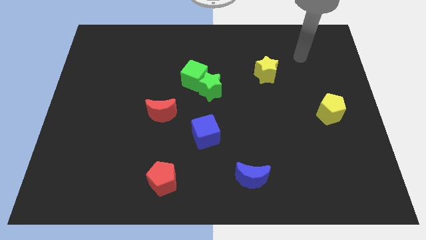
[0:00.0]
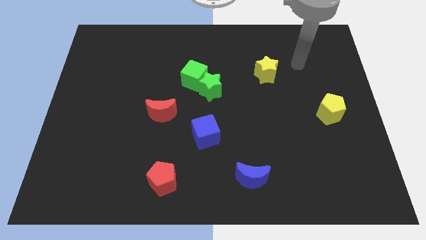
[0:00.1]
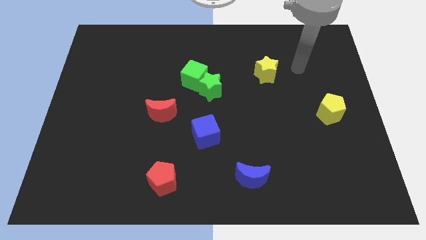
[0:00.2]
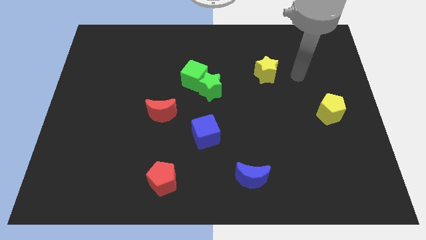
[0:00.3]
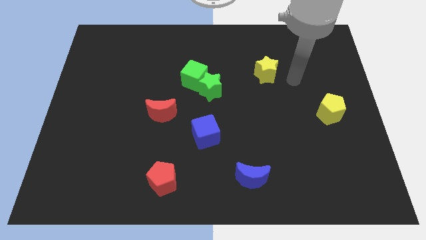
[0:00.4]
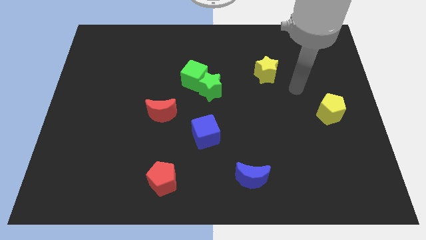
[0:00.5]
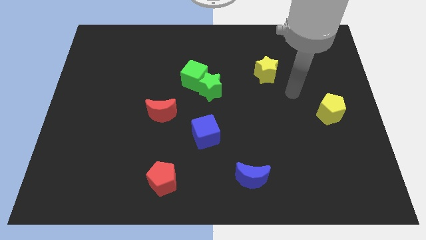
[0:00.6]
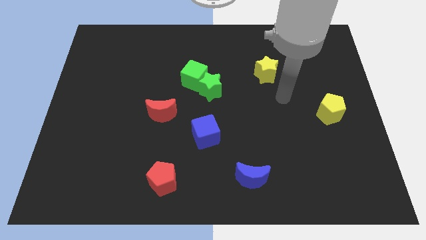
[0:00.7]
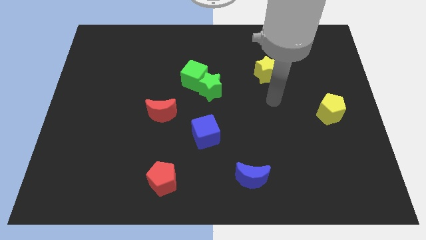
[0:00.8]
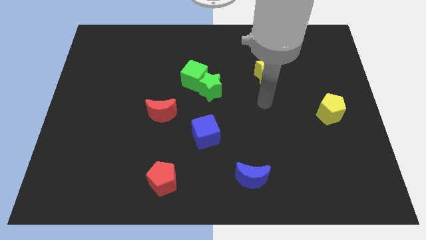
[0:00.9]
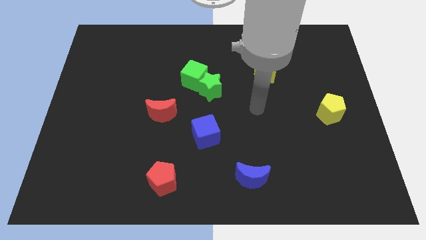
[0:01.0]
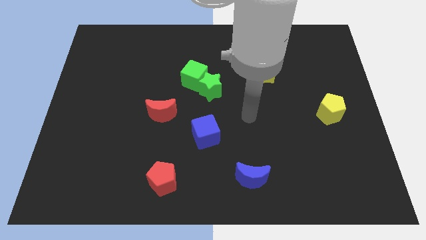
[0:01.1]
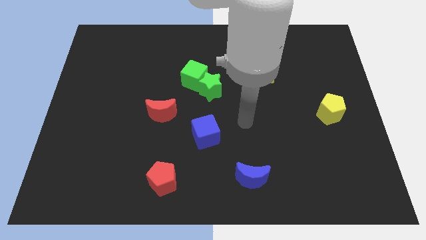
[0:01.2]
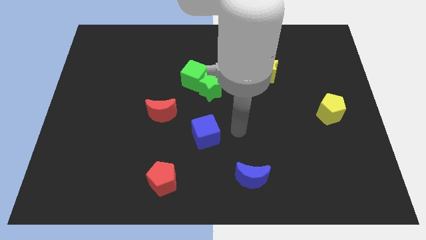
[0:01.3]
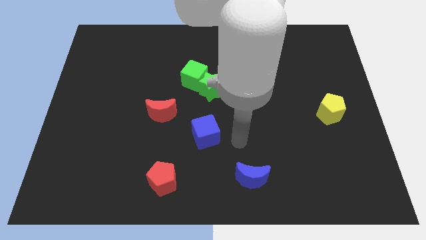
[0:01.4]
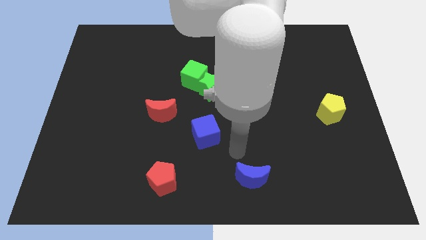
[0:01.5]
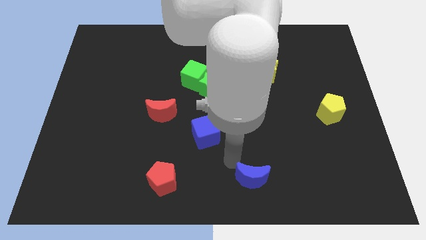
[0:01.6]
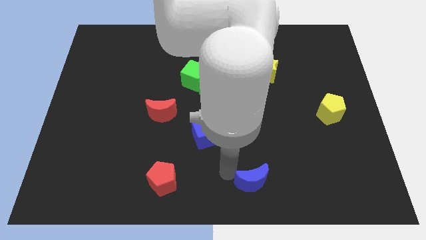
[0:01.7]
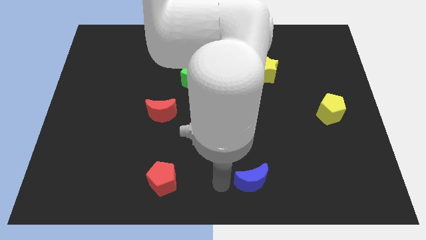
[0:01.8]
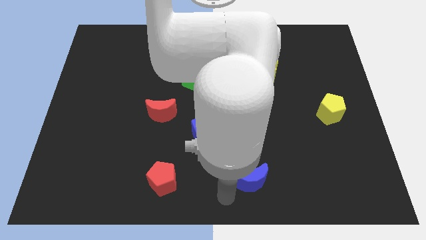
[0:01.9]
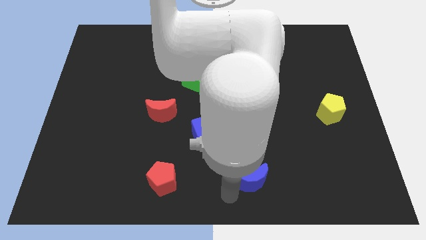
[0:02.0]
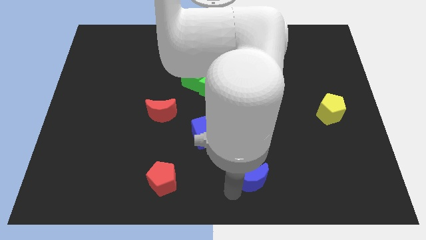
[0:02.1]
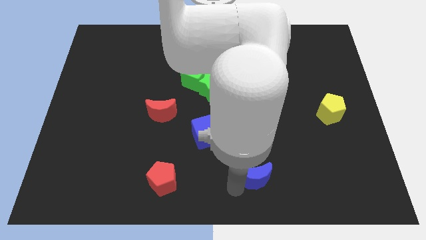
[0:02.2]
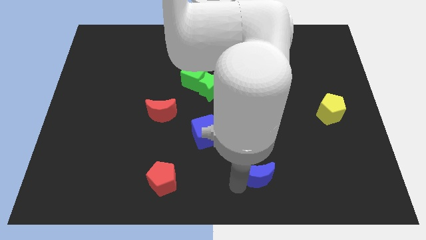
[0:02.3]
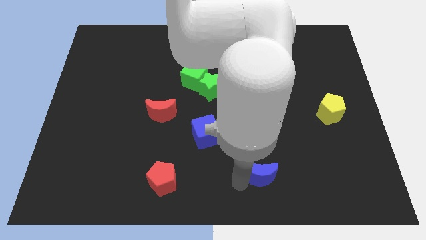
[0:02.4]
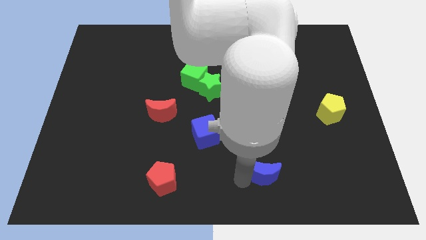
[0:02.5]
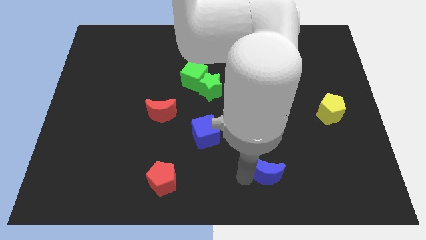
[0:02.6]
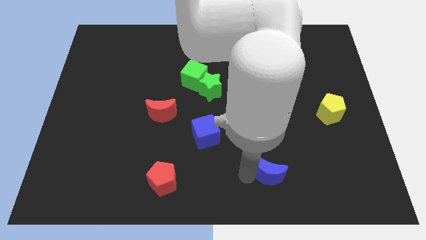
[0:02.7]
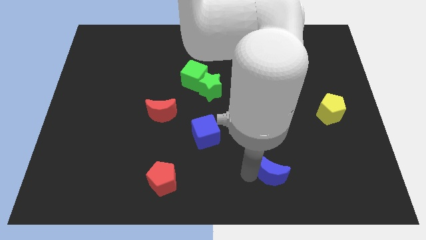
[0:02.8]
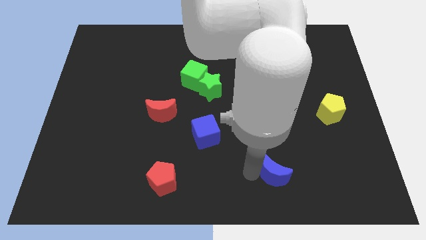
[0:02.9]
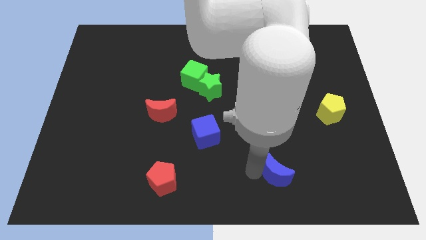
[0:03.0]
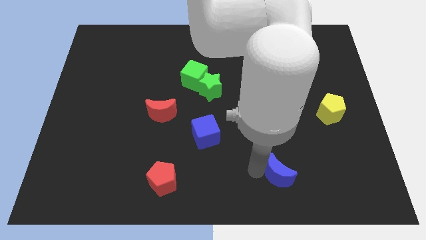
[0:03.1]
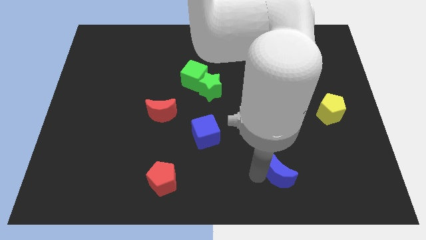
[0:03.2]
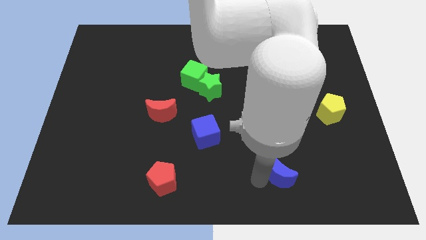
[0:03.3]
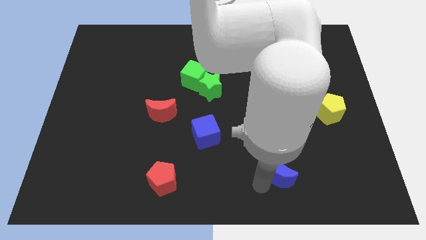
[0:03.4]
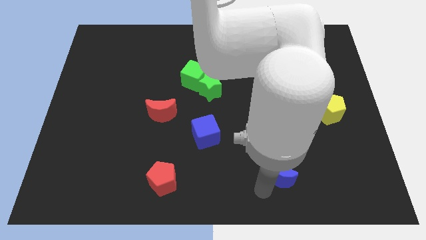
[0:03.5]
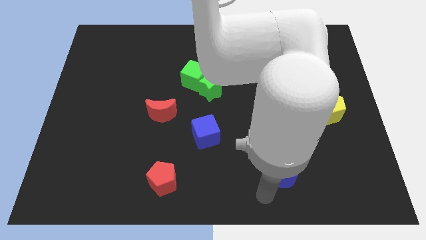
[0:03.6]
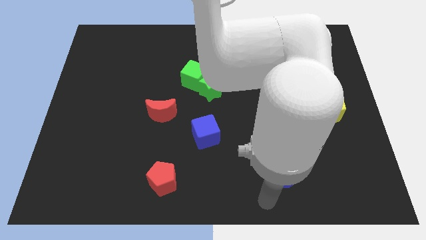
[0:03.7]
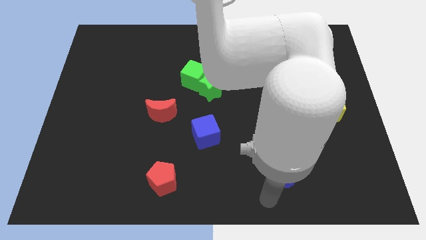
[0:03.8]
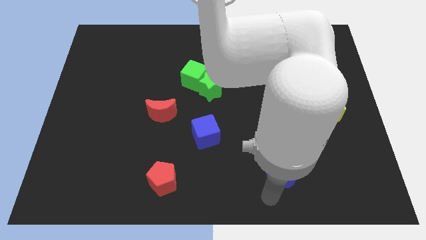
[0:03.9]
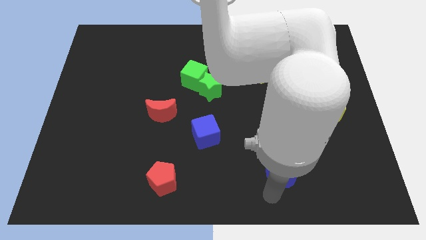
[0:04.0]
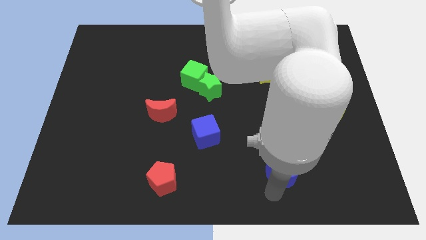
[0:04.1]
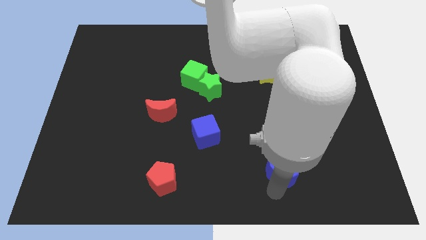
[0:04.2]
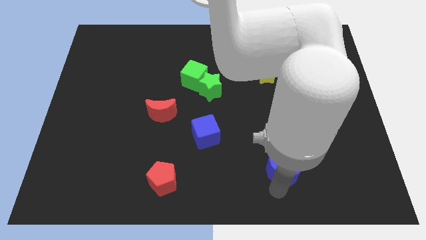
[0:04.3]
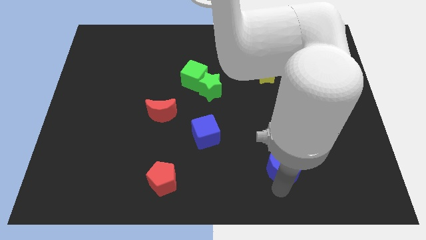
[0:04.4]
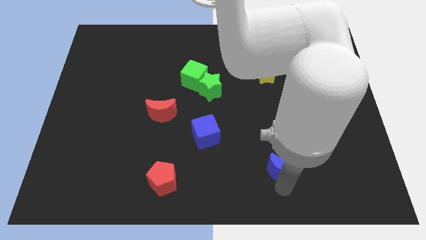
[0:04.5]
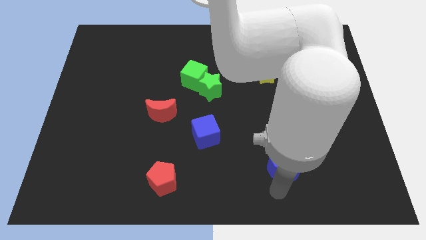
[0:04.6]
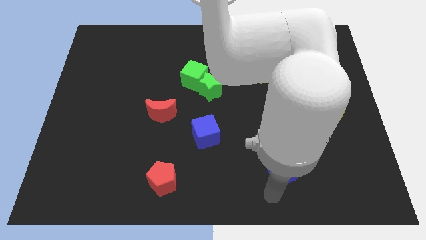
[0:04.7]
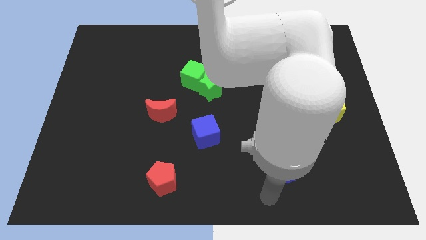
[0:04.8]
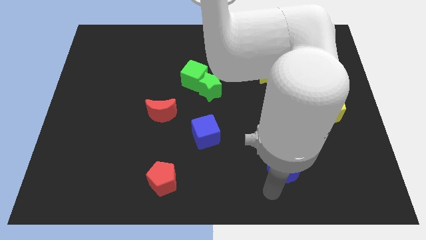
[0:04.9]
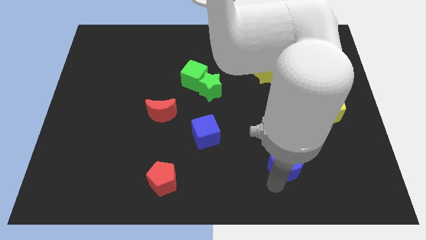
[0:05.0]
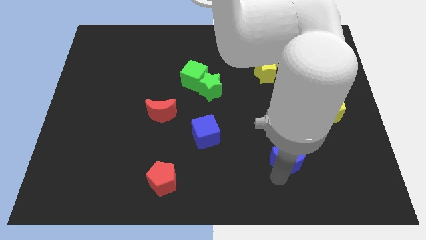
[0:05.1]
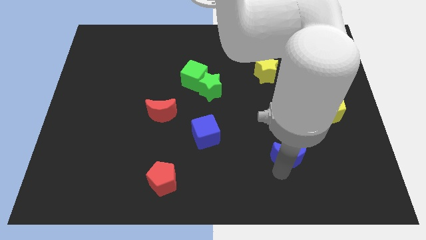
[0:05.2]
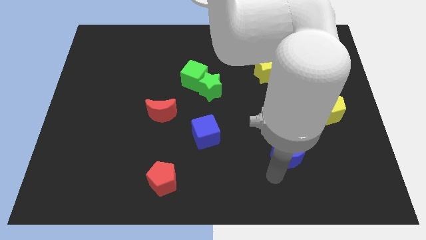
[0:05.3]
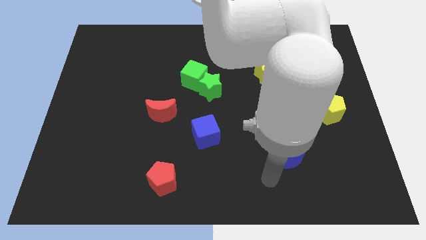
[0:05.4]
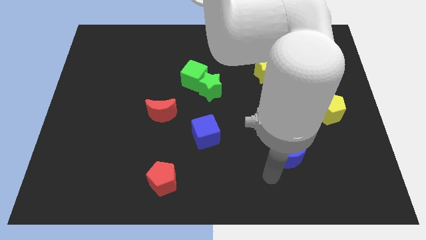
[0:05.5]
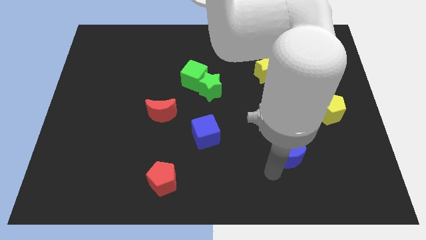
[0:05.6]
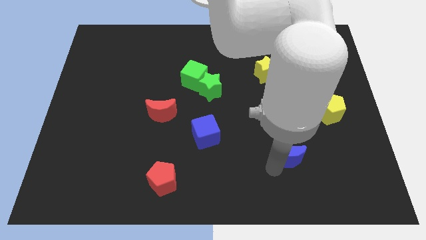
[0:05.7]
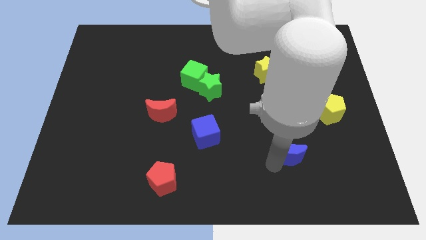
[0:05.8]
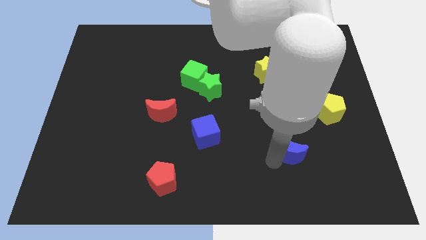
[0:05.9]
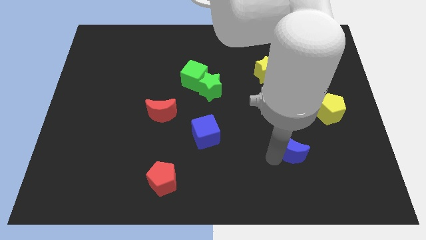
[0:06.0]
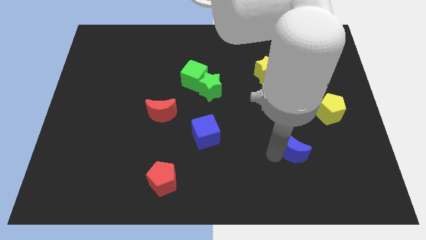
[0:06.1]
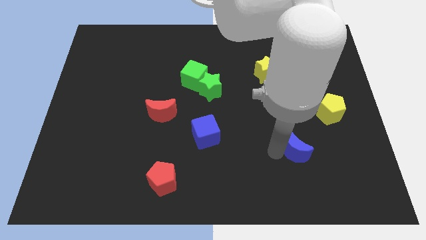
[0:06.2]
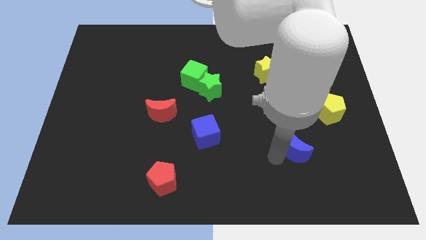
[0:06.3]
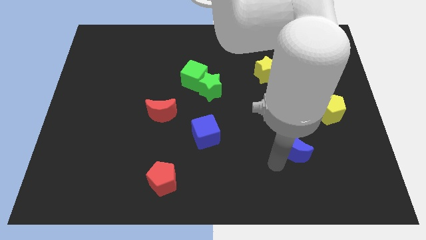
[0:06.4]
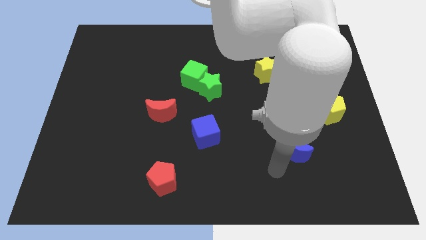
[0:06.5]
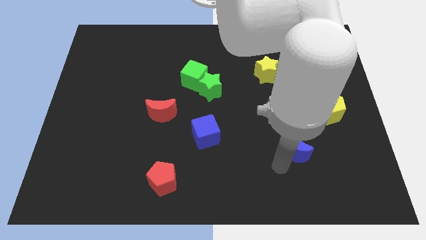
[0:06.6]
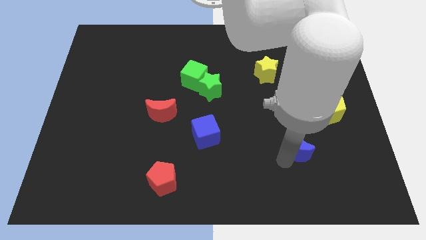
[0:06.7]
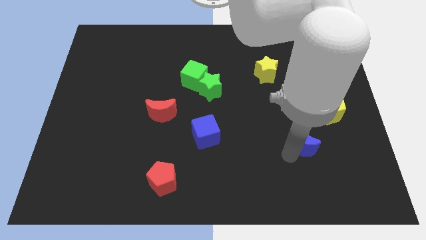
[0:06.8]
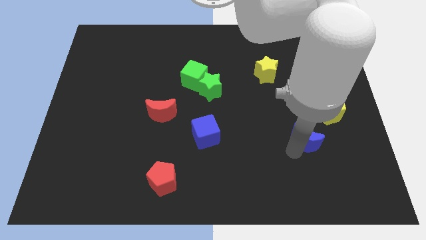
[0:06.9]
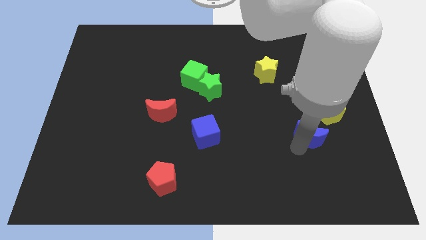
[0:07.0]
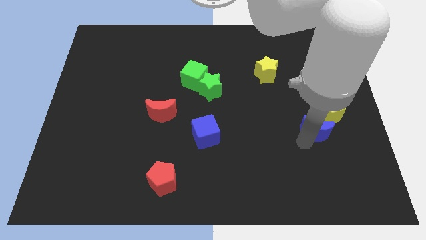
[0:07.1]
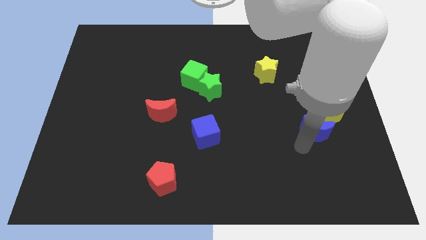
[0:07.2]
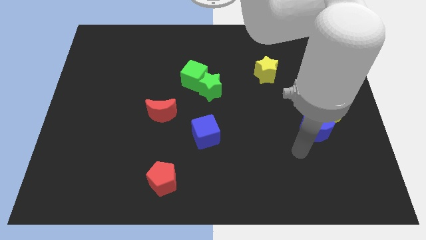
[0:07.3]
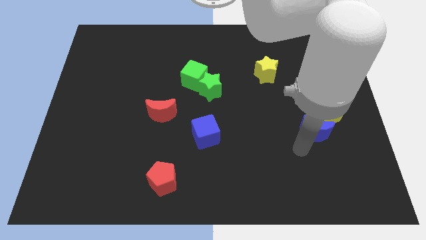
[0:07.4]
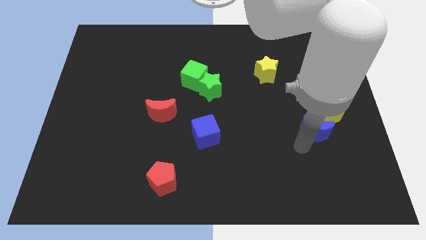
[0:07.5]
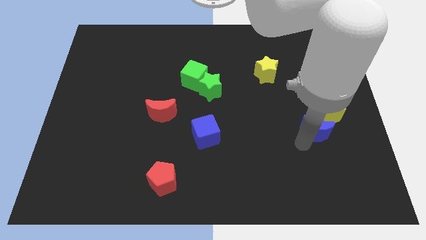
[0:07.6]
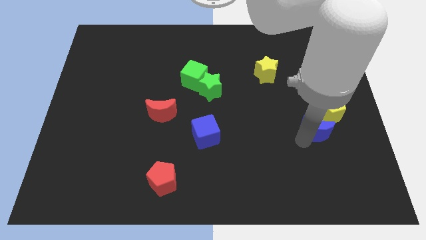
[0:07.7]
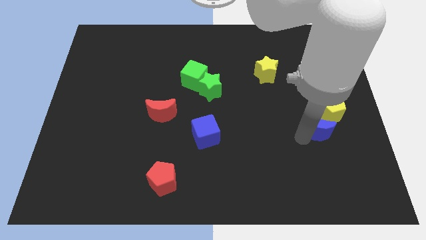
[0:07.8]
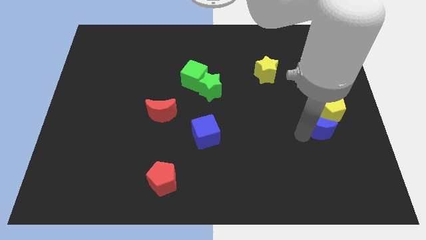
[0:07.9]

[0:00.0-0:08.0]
put the blue moon close to the yellow pentagon
